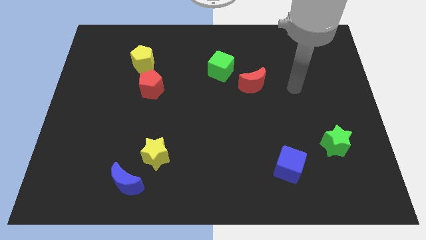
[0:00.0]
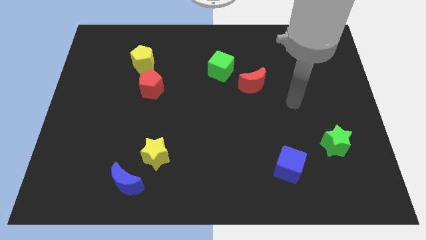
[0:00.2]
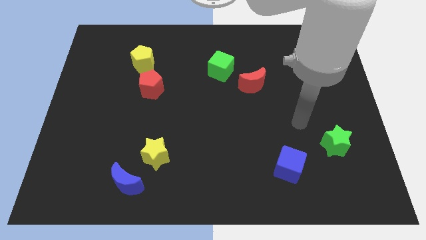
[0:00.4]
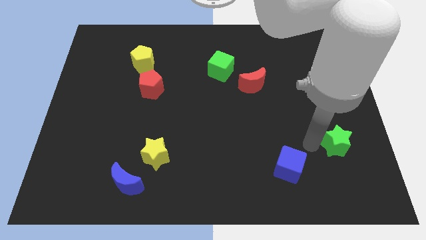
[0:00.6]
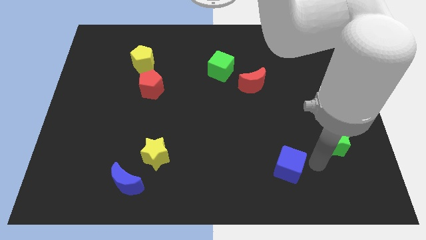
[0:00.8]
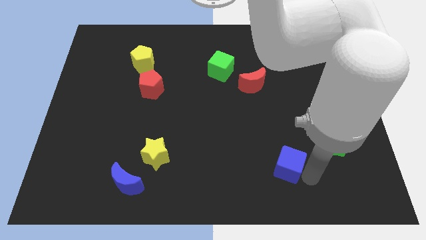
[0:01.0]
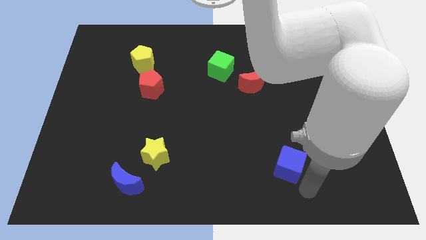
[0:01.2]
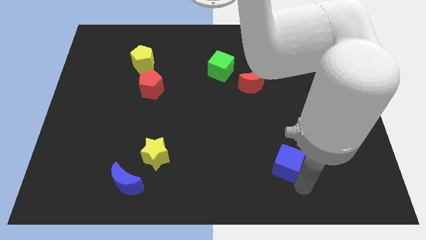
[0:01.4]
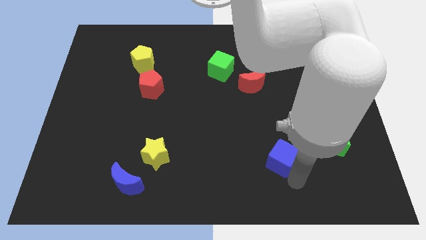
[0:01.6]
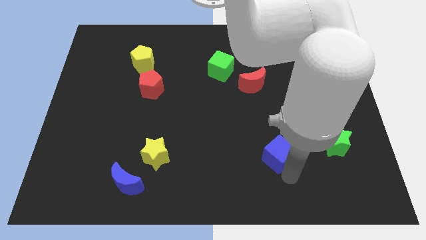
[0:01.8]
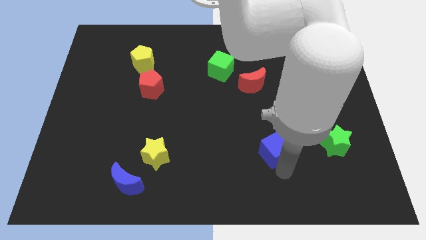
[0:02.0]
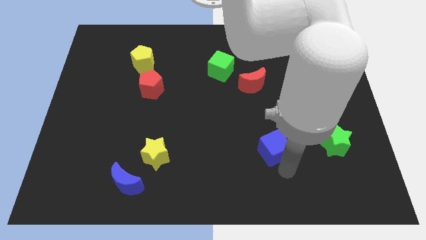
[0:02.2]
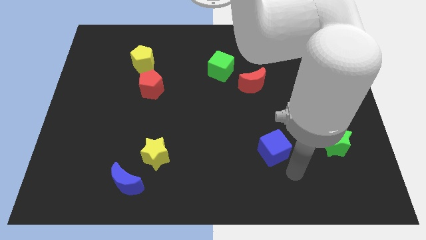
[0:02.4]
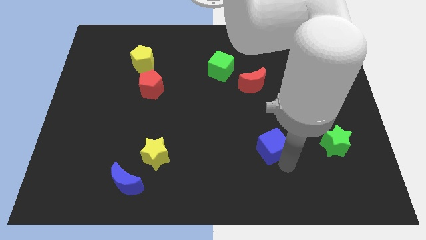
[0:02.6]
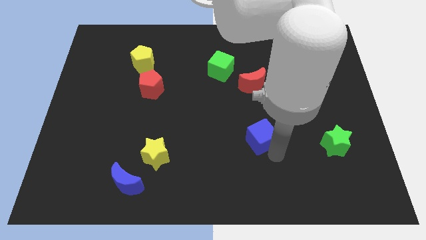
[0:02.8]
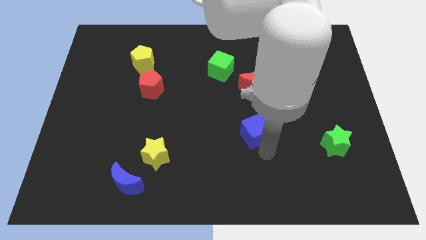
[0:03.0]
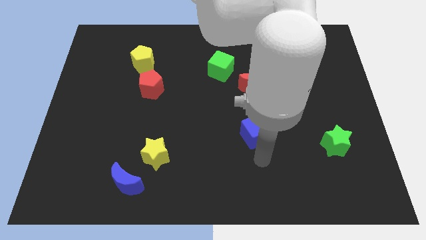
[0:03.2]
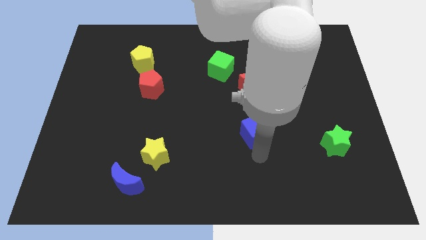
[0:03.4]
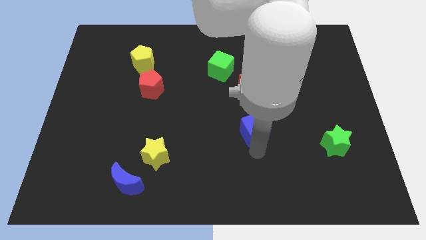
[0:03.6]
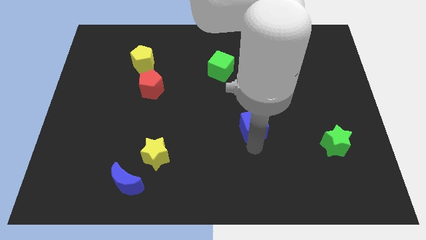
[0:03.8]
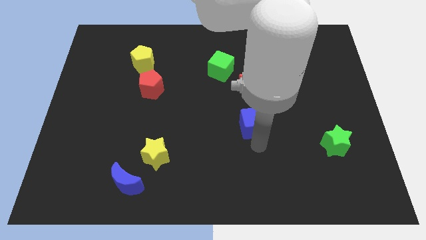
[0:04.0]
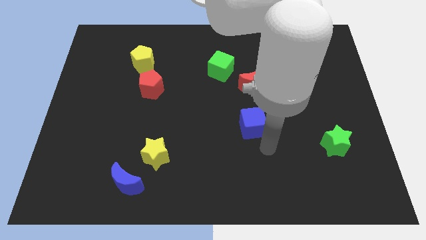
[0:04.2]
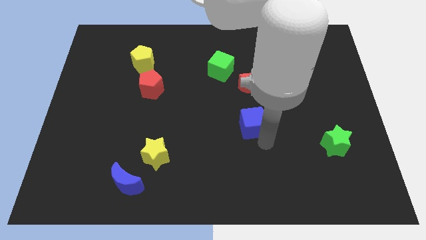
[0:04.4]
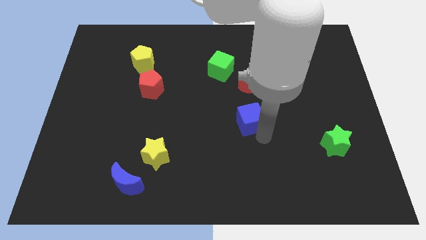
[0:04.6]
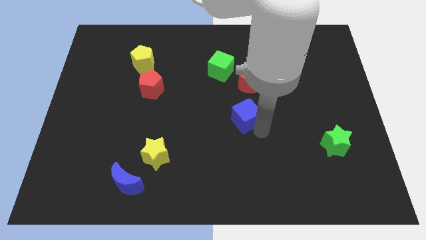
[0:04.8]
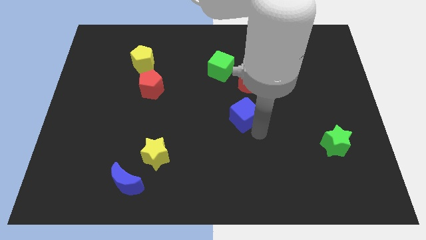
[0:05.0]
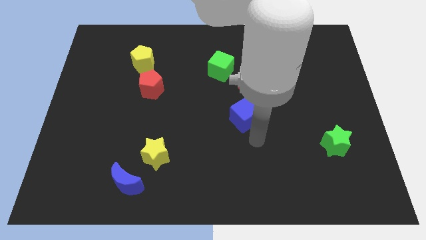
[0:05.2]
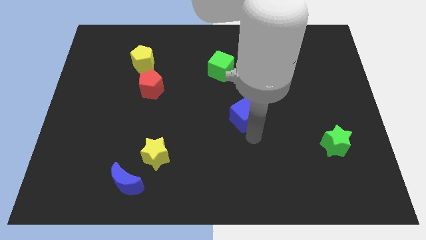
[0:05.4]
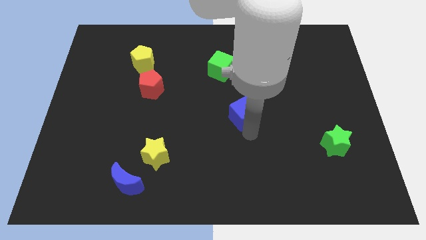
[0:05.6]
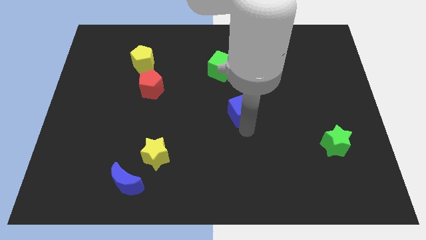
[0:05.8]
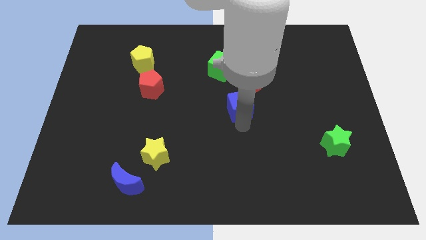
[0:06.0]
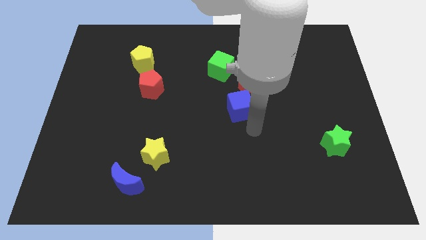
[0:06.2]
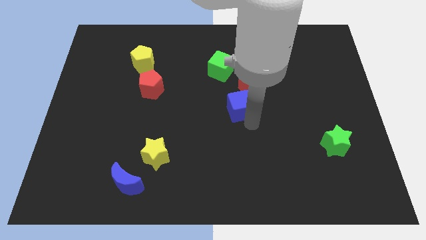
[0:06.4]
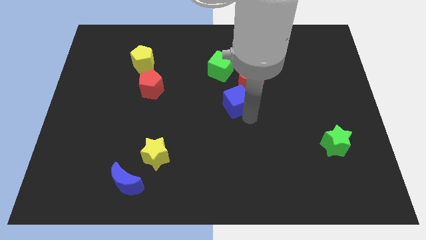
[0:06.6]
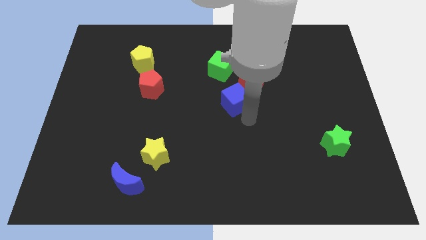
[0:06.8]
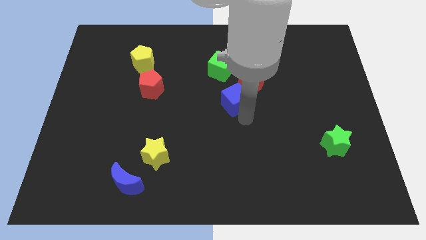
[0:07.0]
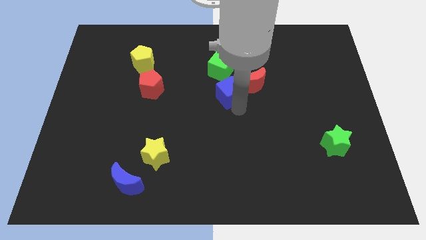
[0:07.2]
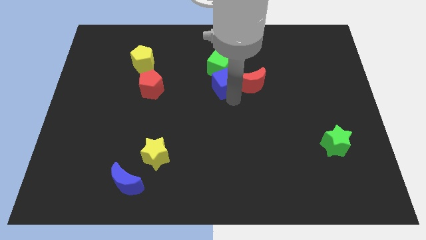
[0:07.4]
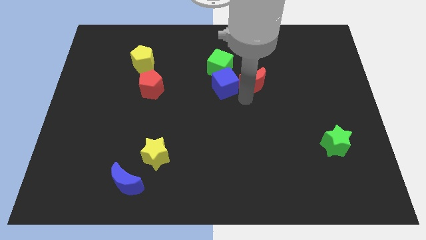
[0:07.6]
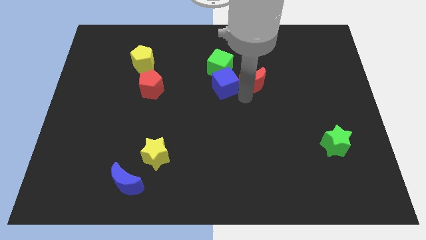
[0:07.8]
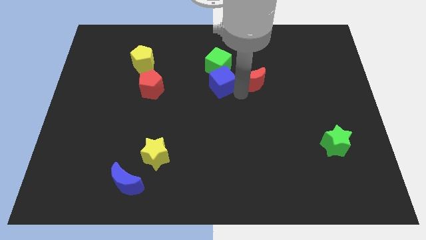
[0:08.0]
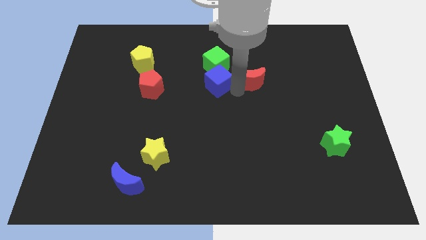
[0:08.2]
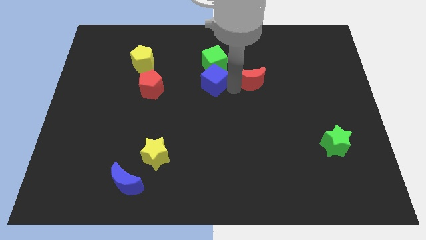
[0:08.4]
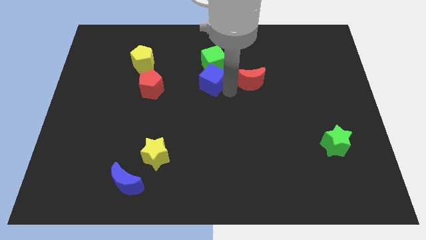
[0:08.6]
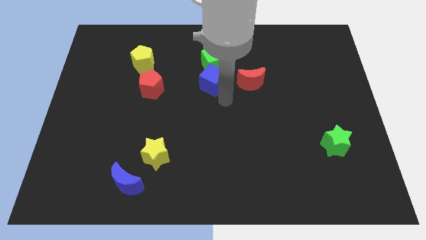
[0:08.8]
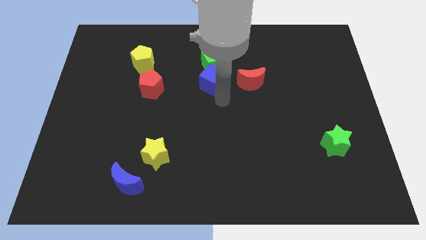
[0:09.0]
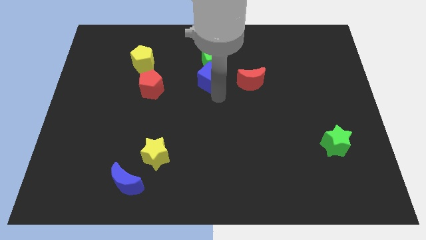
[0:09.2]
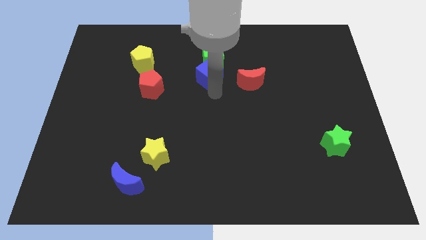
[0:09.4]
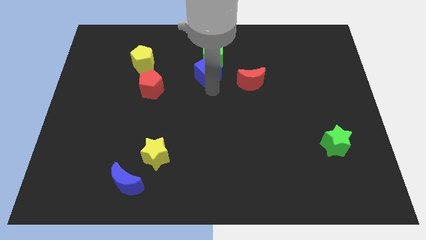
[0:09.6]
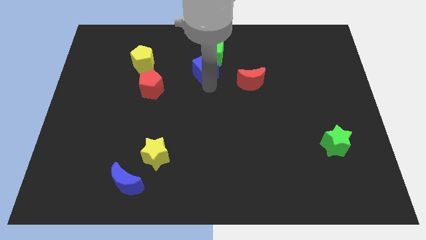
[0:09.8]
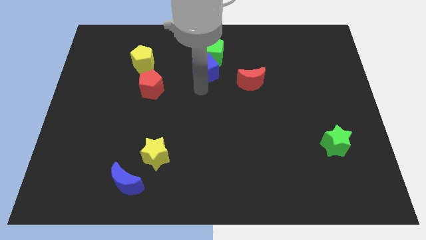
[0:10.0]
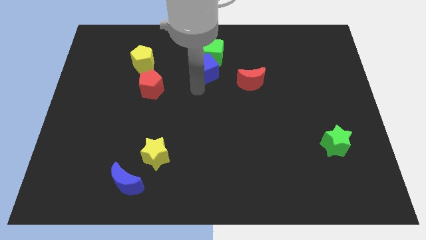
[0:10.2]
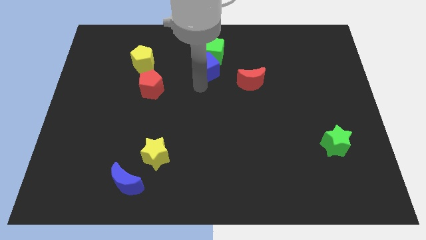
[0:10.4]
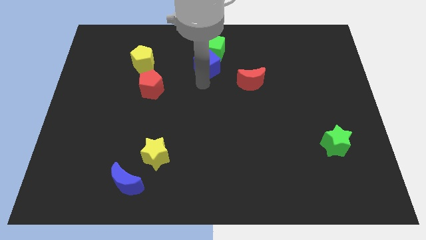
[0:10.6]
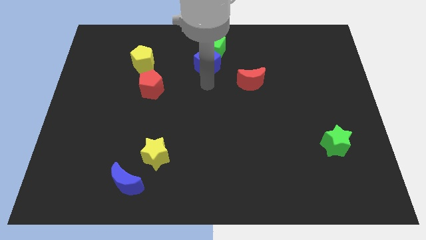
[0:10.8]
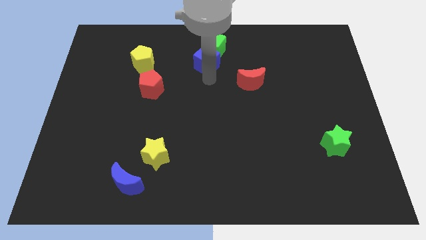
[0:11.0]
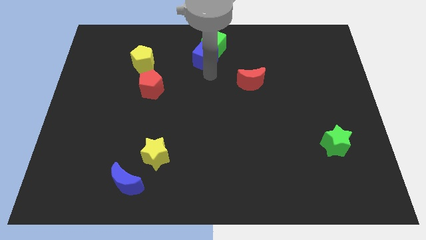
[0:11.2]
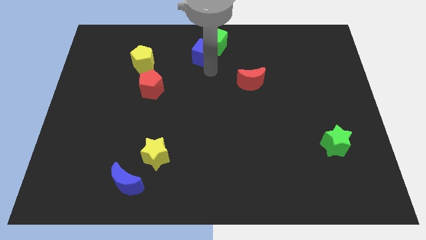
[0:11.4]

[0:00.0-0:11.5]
move the blue cube to the top side

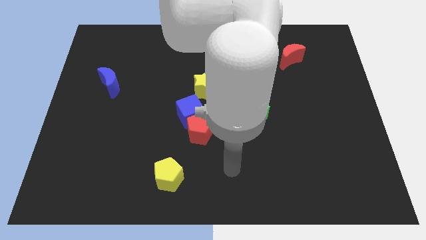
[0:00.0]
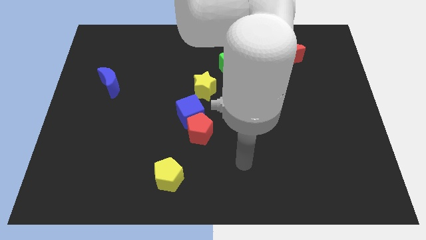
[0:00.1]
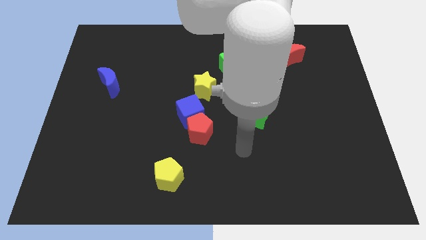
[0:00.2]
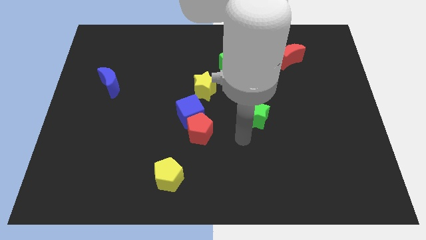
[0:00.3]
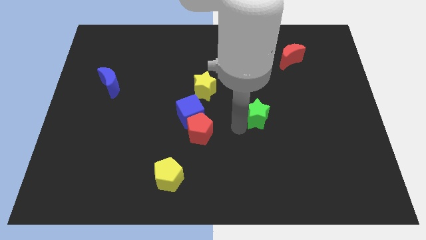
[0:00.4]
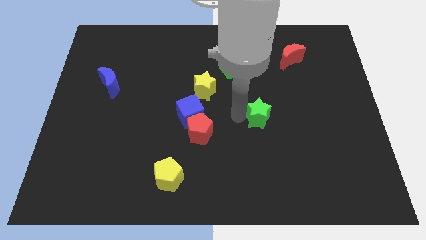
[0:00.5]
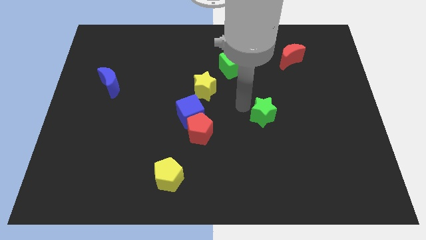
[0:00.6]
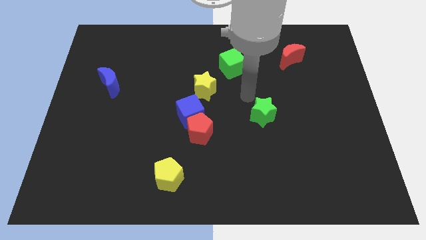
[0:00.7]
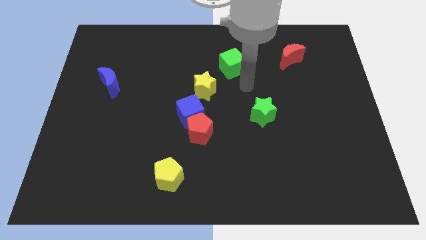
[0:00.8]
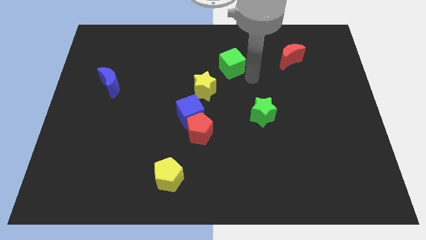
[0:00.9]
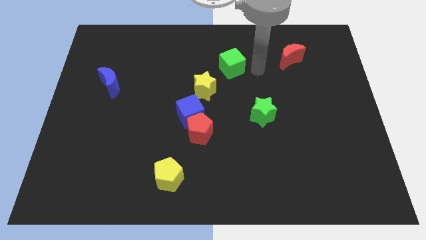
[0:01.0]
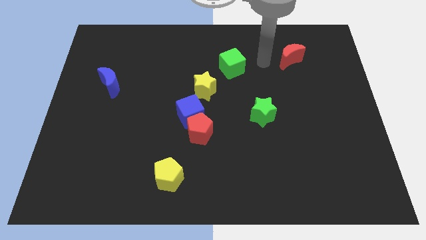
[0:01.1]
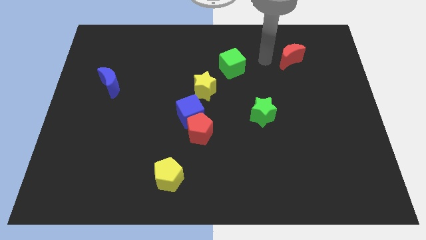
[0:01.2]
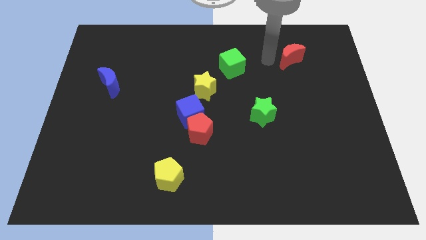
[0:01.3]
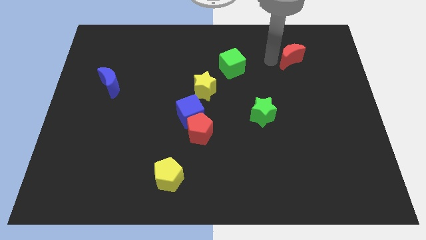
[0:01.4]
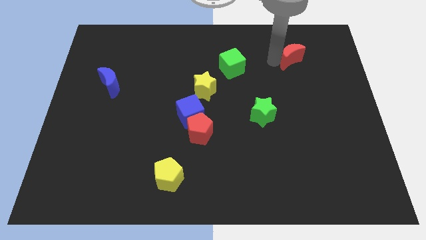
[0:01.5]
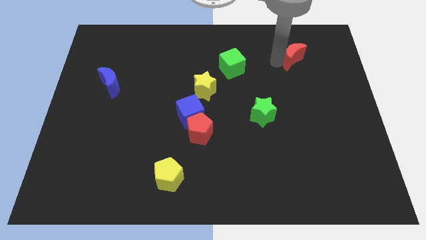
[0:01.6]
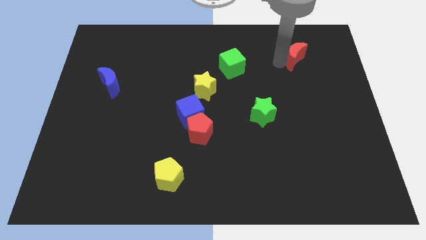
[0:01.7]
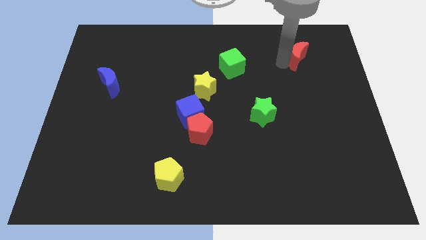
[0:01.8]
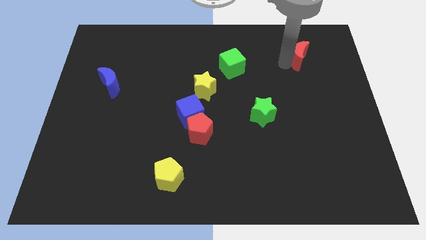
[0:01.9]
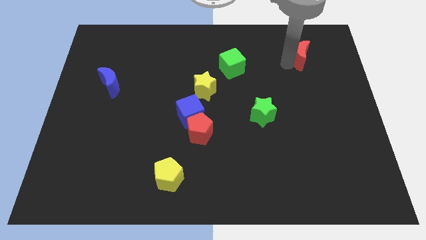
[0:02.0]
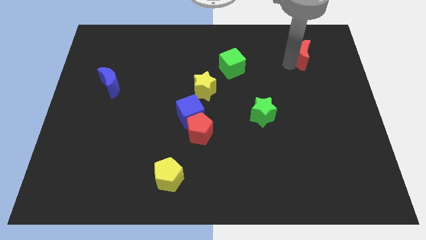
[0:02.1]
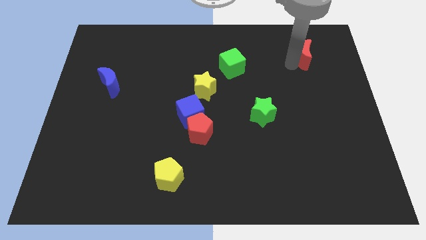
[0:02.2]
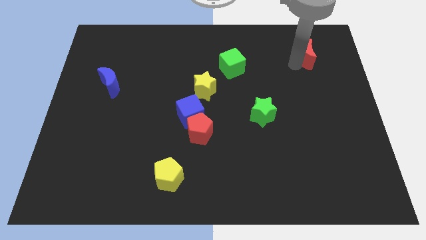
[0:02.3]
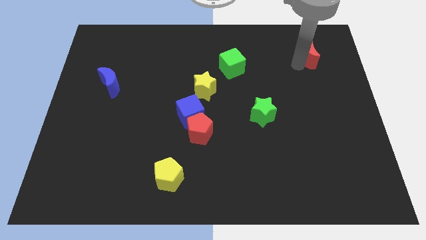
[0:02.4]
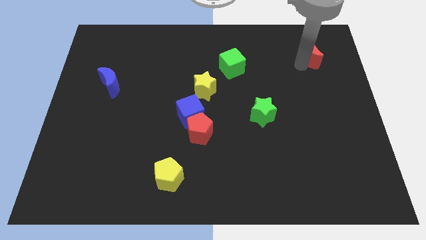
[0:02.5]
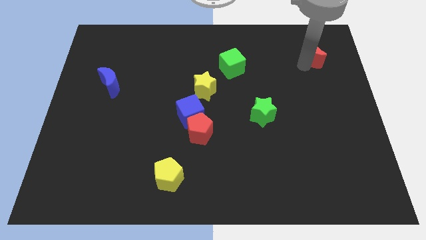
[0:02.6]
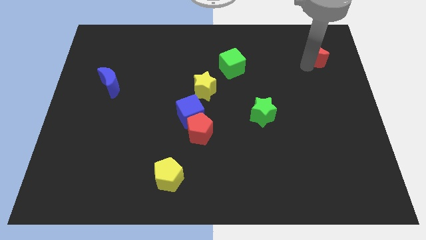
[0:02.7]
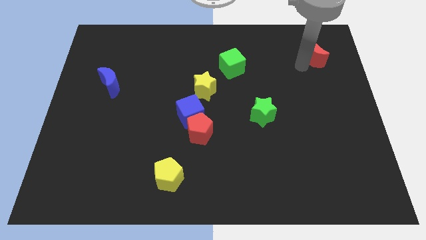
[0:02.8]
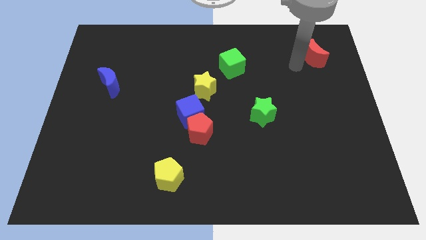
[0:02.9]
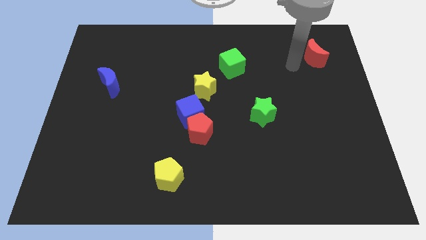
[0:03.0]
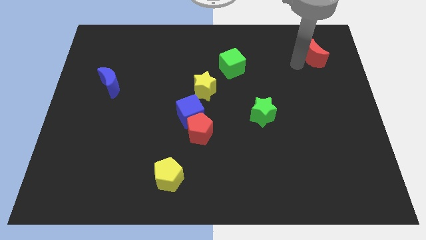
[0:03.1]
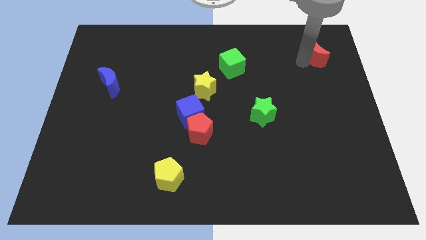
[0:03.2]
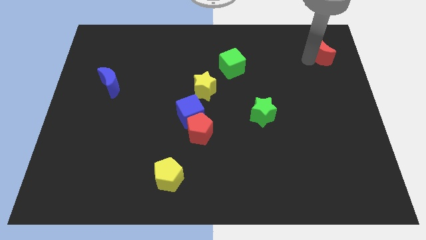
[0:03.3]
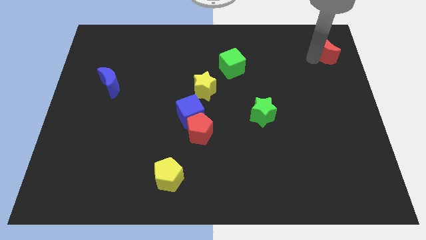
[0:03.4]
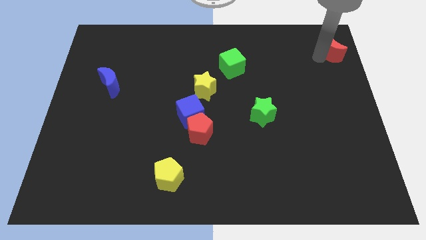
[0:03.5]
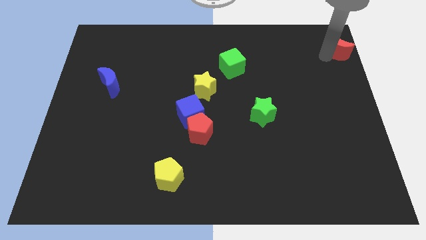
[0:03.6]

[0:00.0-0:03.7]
slide the red moon to the top right corner
